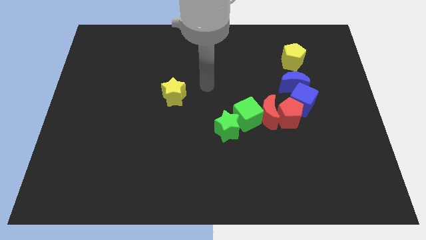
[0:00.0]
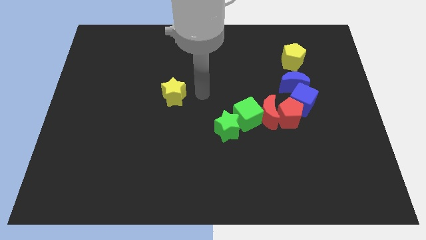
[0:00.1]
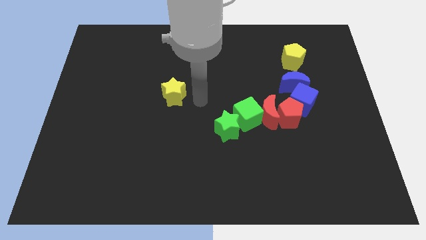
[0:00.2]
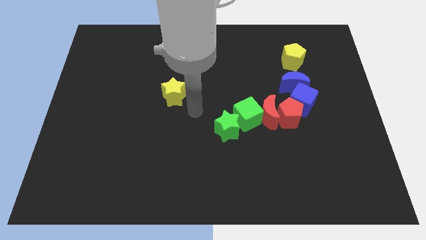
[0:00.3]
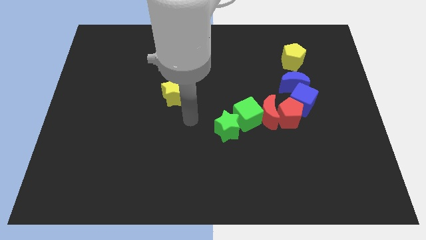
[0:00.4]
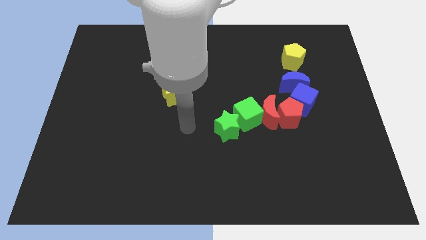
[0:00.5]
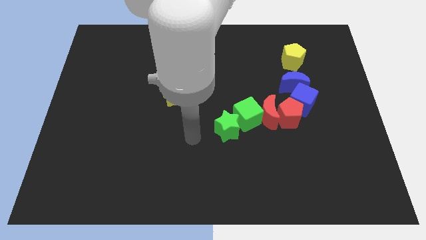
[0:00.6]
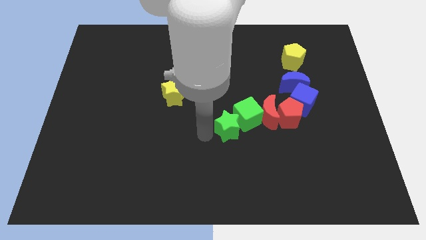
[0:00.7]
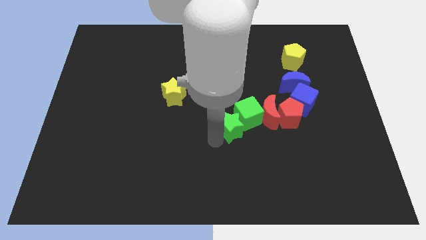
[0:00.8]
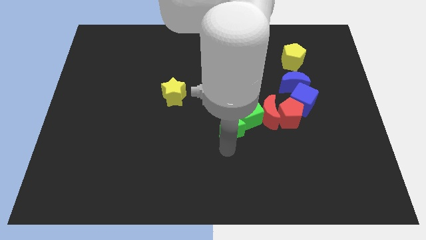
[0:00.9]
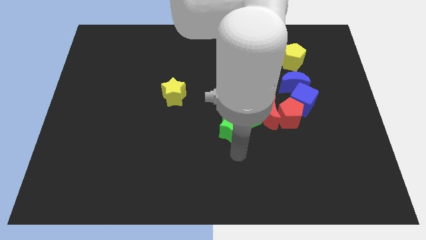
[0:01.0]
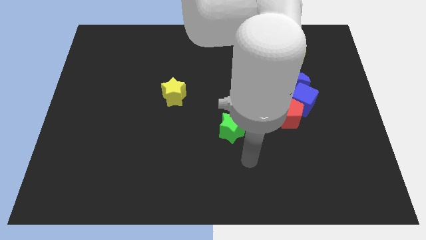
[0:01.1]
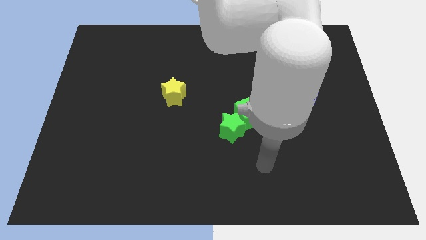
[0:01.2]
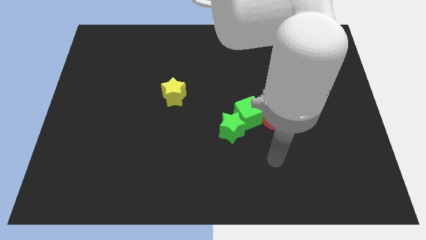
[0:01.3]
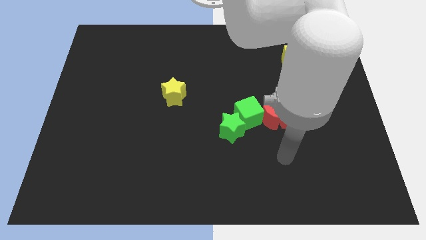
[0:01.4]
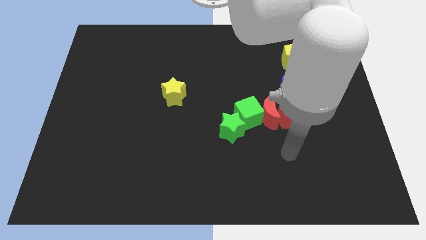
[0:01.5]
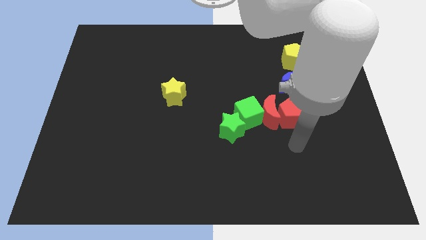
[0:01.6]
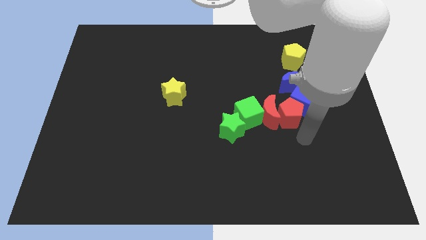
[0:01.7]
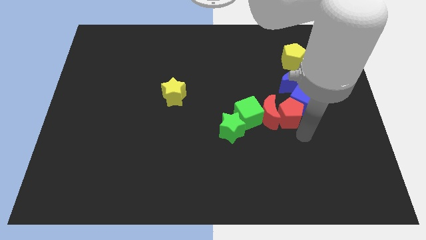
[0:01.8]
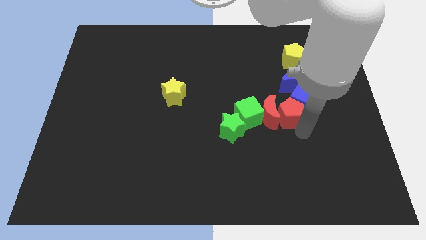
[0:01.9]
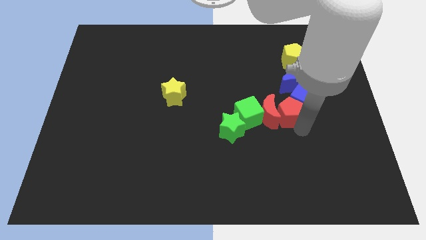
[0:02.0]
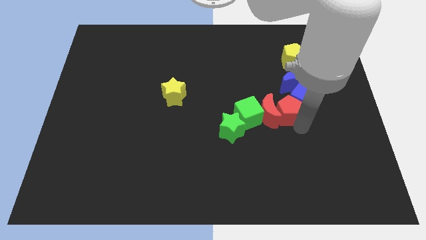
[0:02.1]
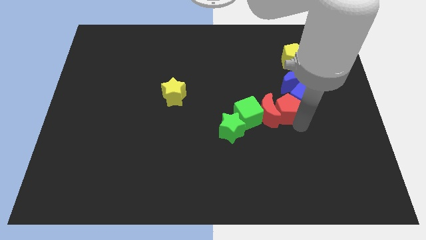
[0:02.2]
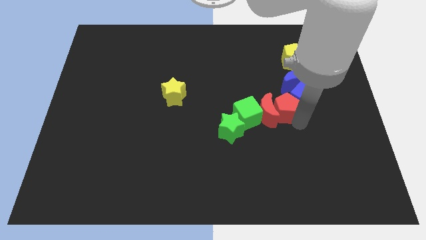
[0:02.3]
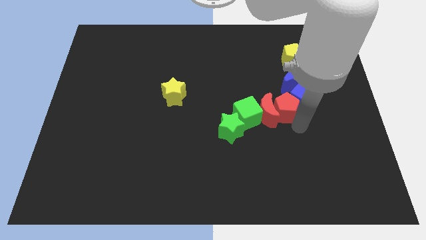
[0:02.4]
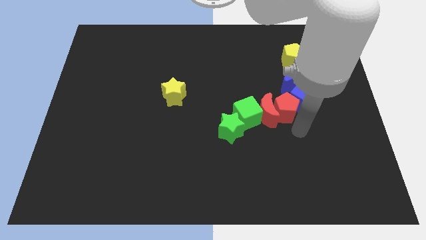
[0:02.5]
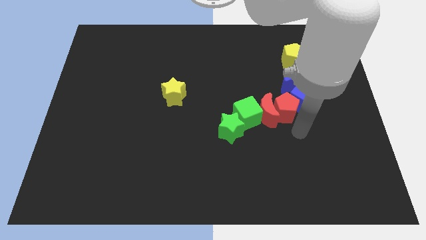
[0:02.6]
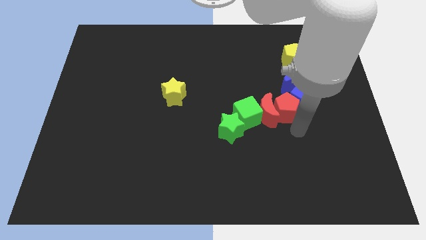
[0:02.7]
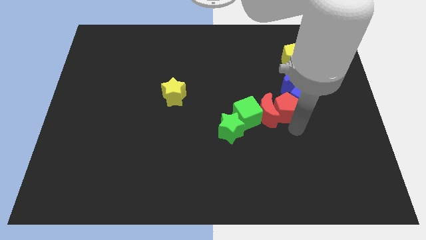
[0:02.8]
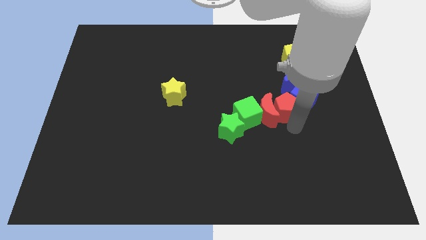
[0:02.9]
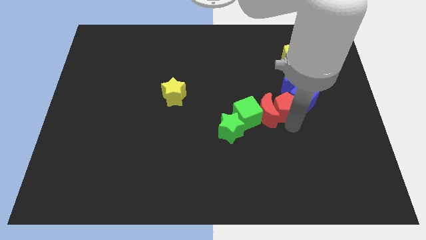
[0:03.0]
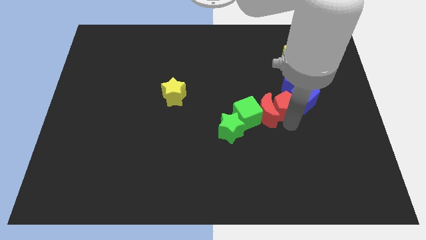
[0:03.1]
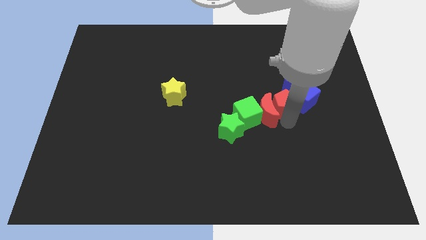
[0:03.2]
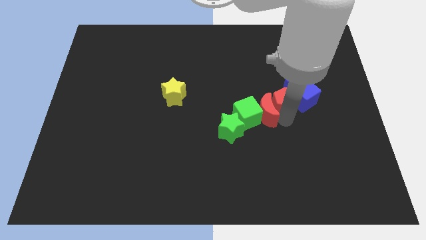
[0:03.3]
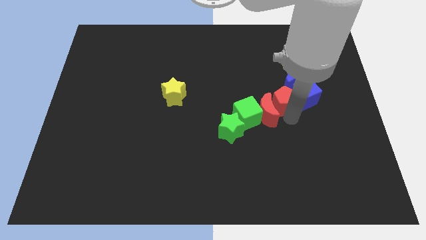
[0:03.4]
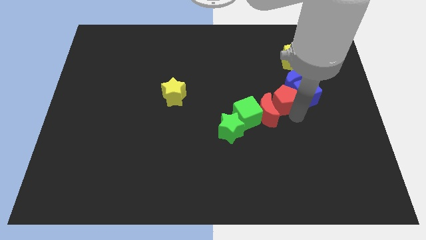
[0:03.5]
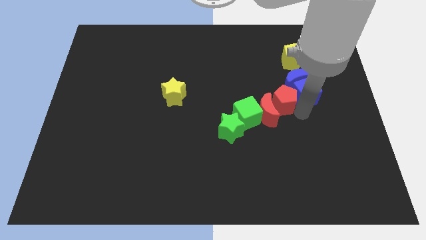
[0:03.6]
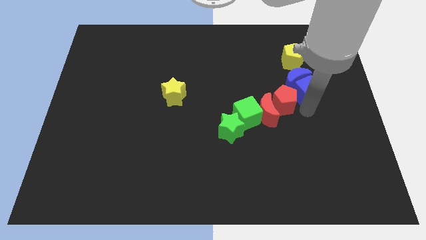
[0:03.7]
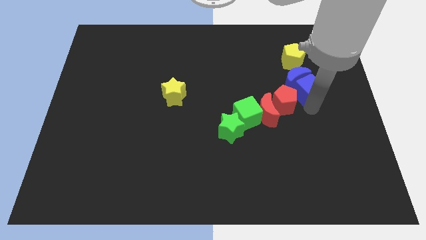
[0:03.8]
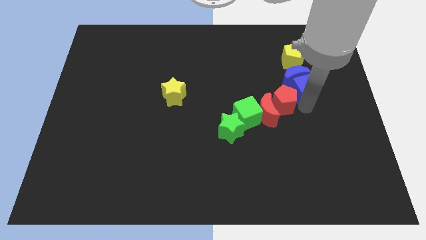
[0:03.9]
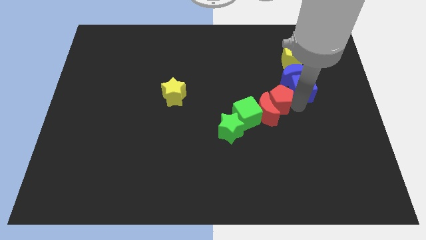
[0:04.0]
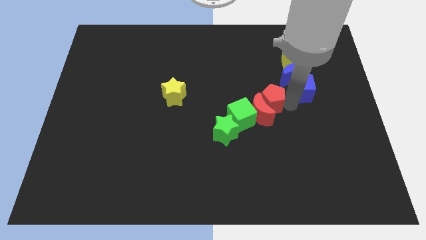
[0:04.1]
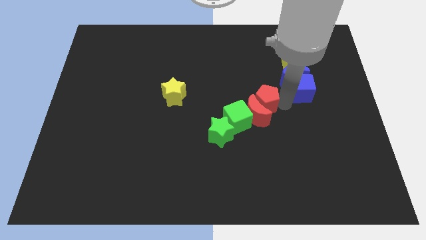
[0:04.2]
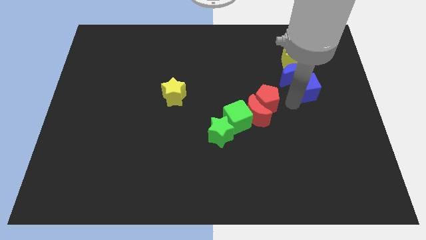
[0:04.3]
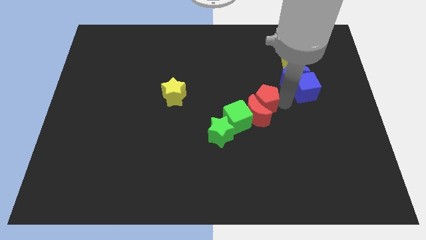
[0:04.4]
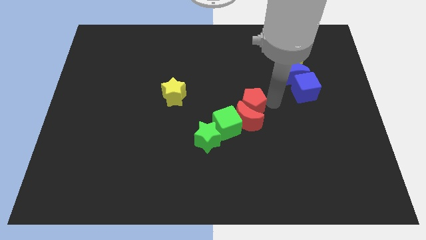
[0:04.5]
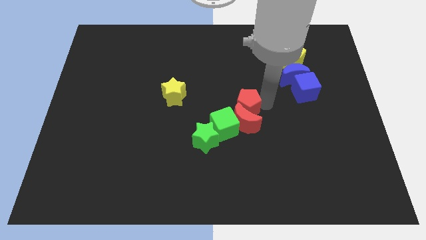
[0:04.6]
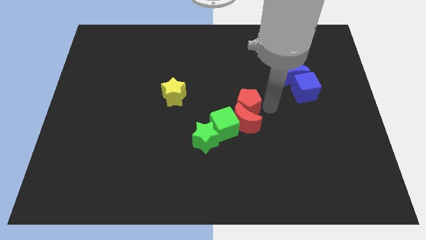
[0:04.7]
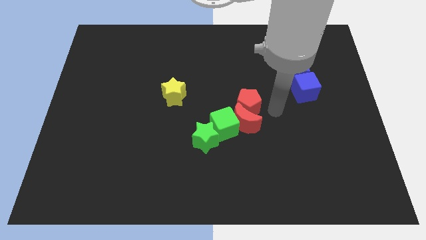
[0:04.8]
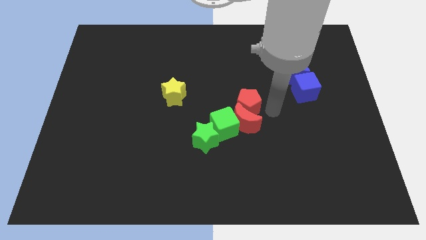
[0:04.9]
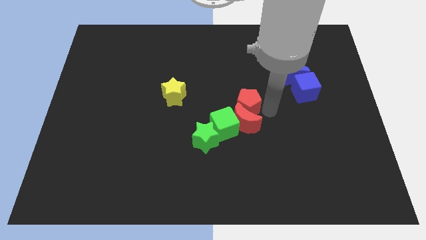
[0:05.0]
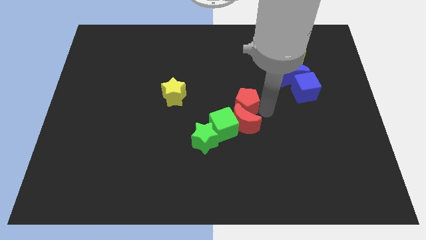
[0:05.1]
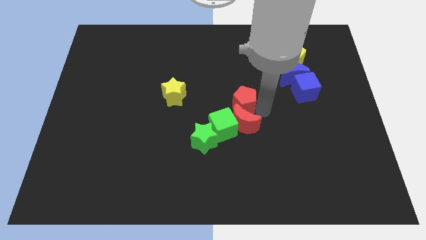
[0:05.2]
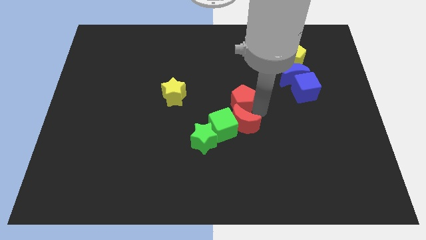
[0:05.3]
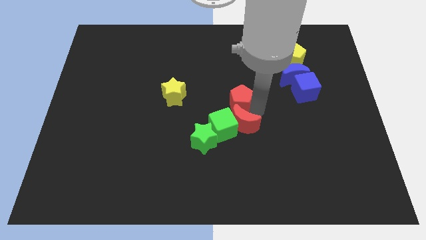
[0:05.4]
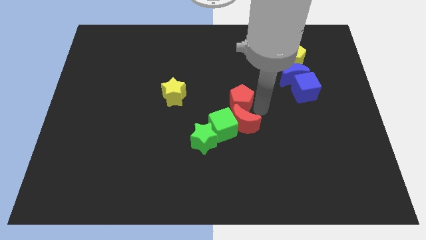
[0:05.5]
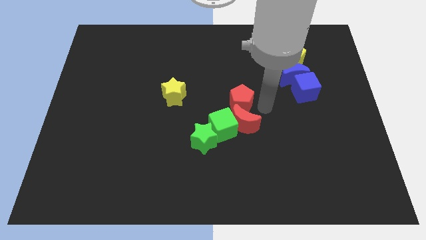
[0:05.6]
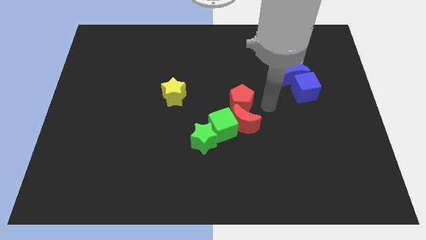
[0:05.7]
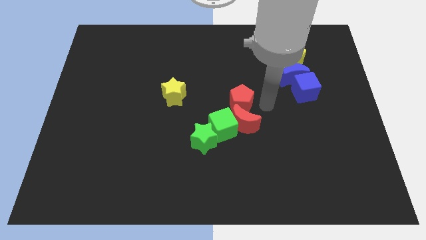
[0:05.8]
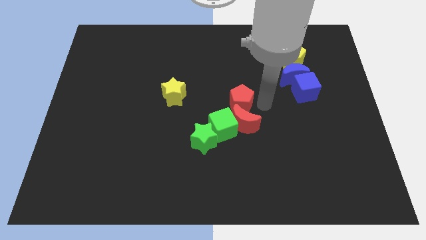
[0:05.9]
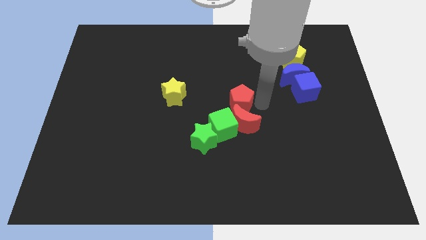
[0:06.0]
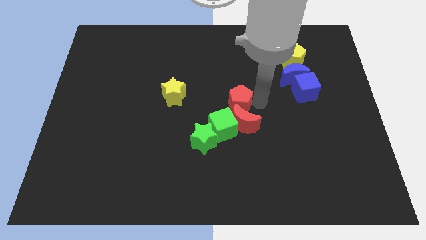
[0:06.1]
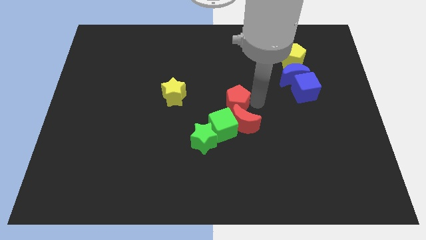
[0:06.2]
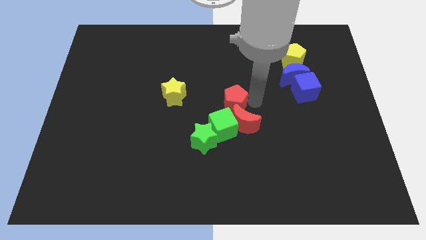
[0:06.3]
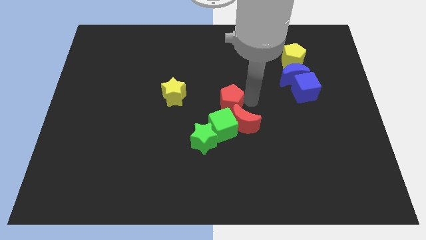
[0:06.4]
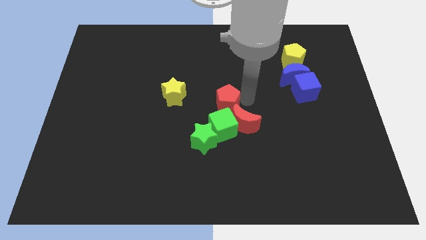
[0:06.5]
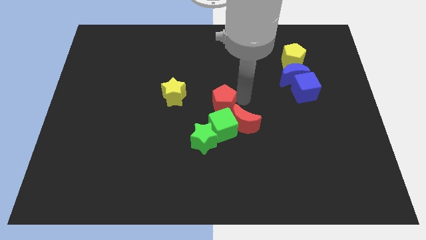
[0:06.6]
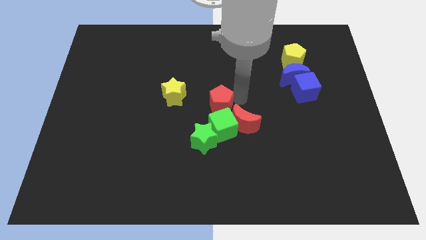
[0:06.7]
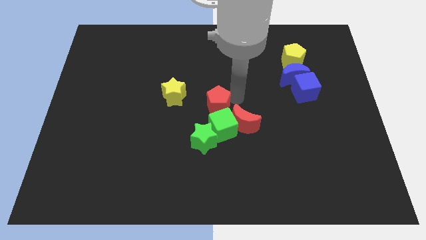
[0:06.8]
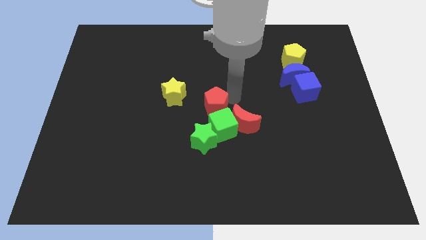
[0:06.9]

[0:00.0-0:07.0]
push the red pentagon to the bottom right side of the yellow star

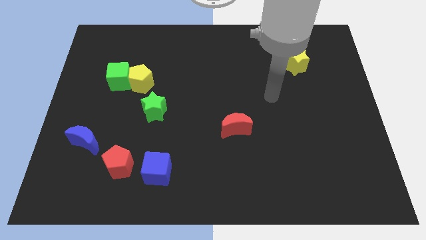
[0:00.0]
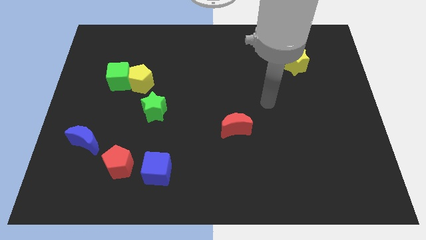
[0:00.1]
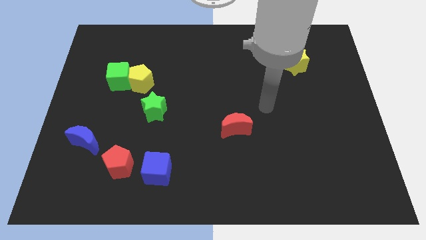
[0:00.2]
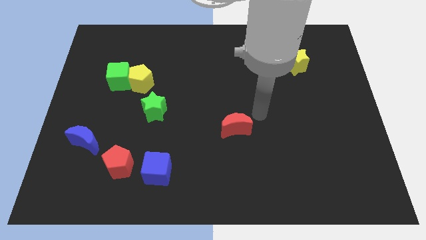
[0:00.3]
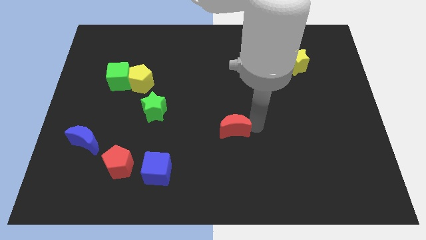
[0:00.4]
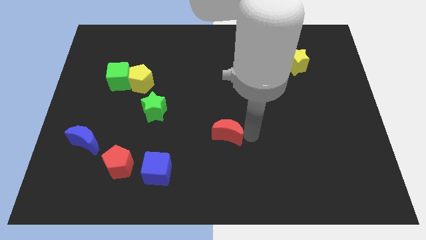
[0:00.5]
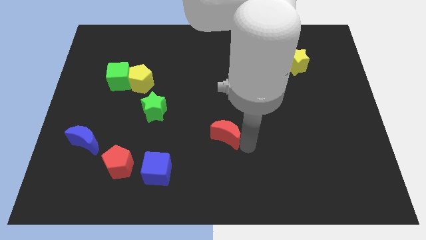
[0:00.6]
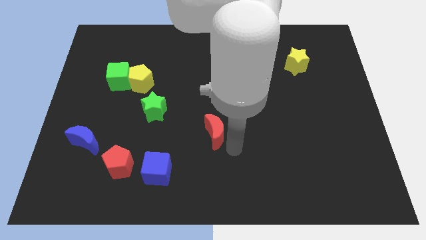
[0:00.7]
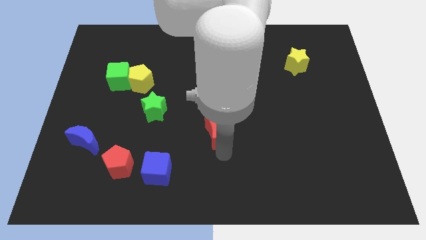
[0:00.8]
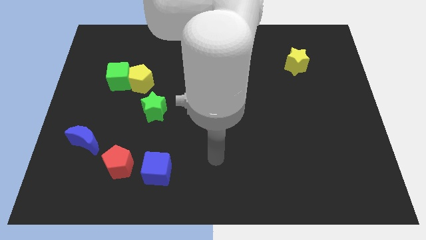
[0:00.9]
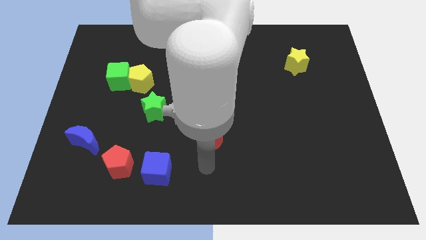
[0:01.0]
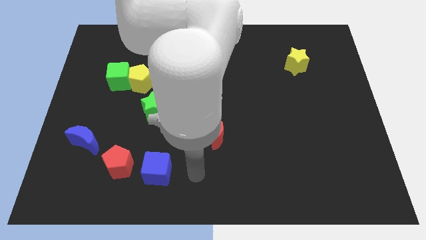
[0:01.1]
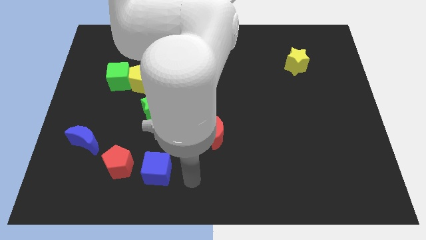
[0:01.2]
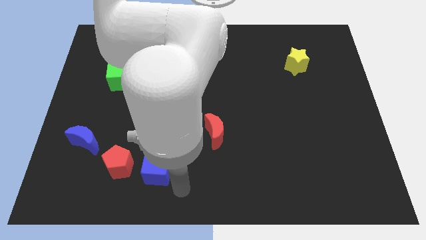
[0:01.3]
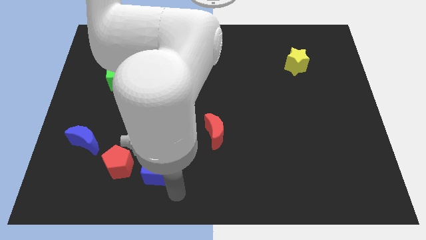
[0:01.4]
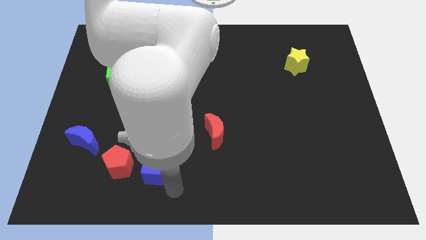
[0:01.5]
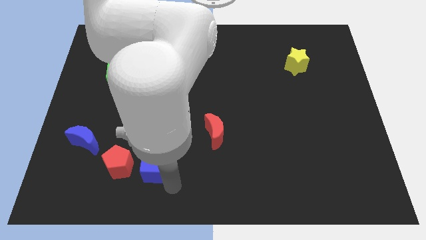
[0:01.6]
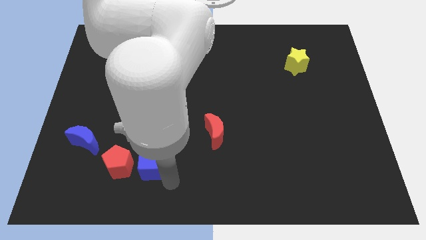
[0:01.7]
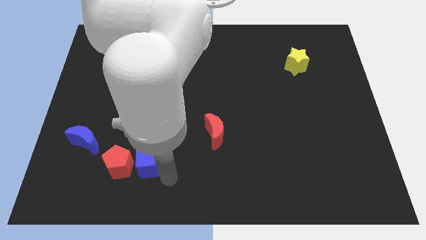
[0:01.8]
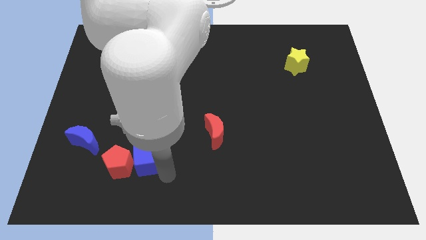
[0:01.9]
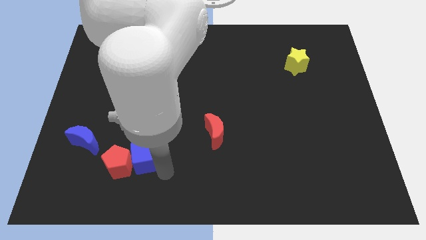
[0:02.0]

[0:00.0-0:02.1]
slide the blue cube just right of the blue moon
